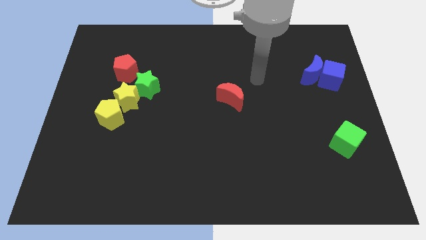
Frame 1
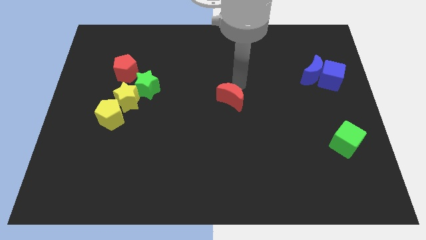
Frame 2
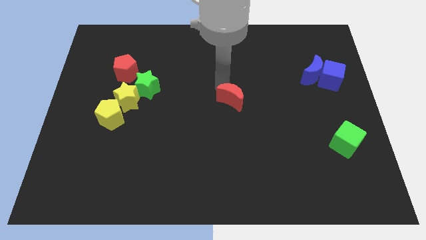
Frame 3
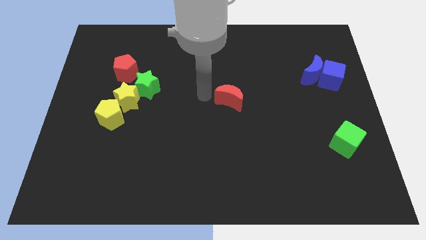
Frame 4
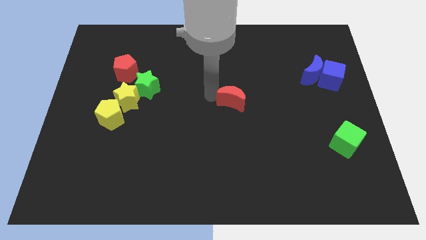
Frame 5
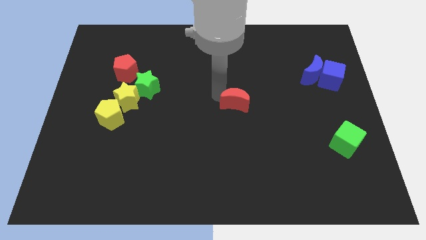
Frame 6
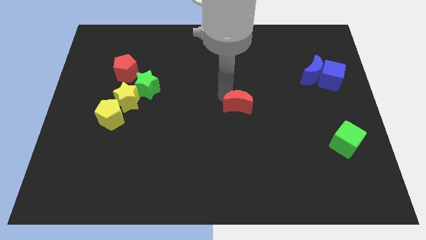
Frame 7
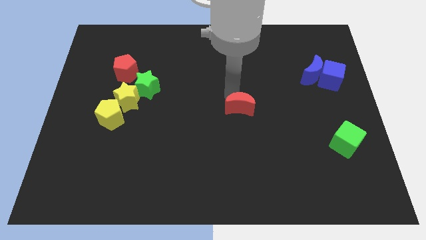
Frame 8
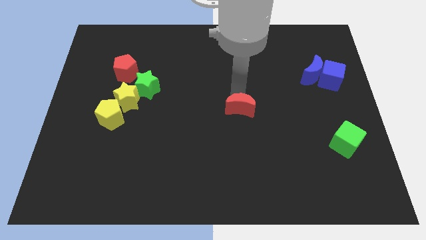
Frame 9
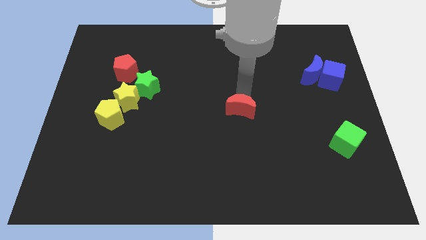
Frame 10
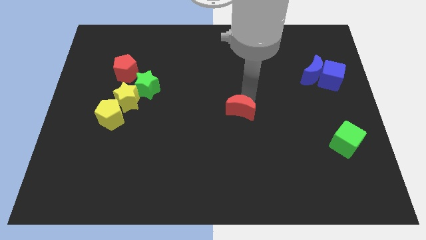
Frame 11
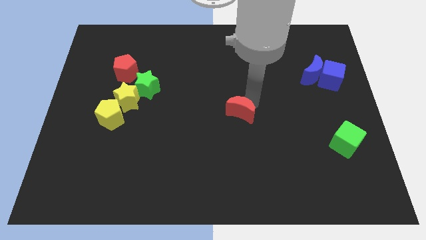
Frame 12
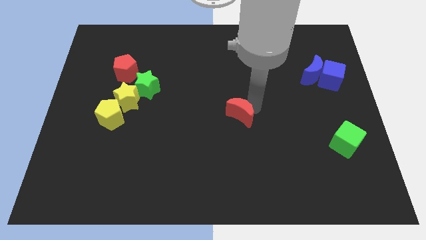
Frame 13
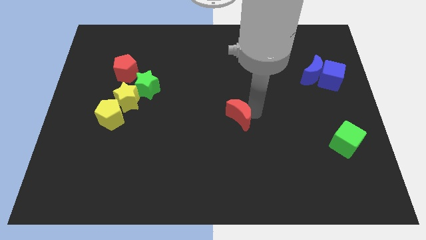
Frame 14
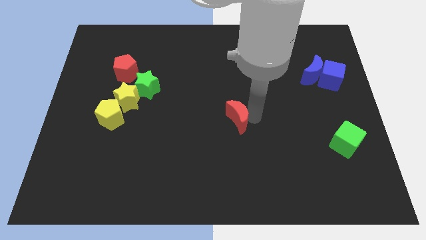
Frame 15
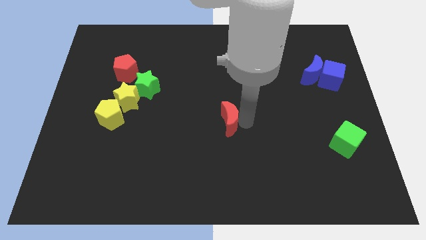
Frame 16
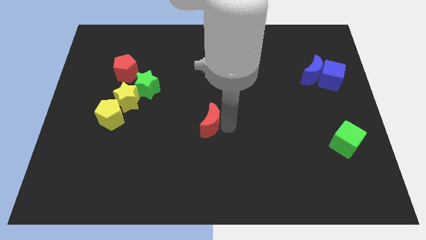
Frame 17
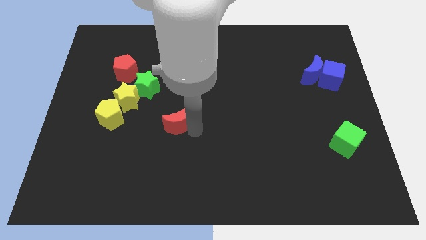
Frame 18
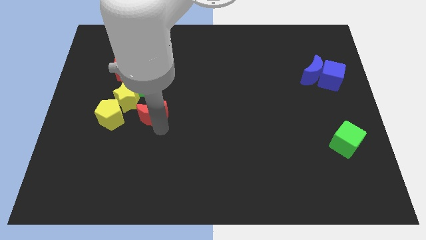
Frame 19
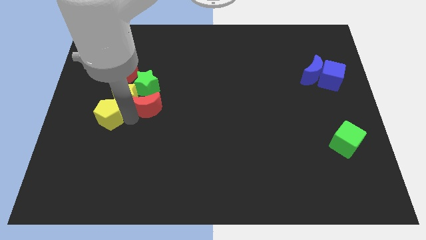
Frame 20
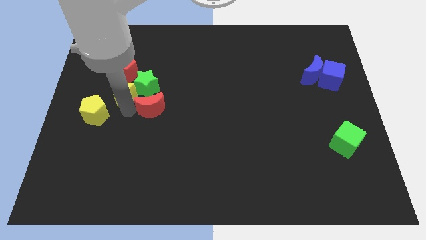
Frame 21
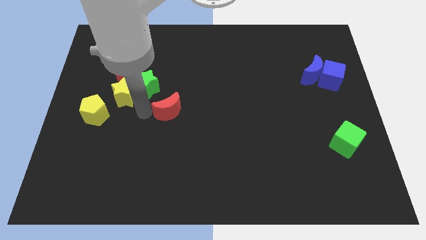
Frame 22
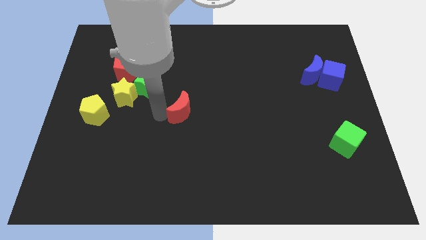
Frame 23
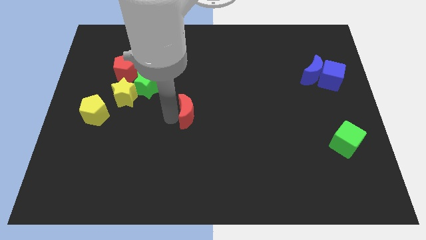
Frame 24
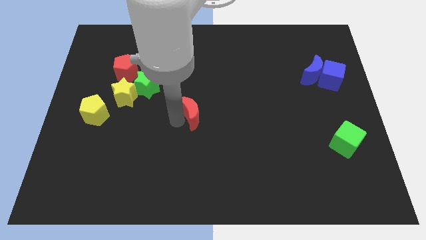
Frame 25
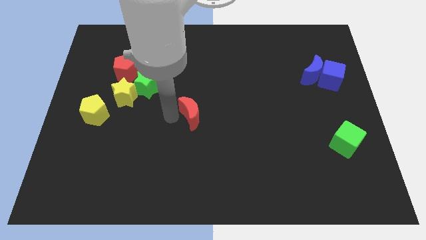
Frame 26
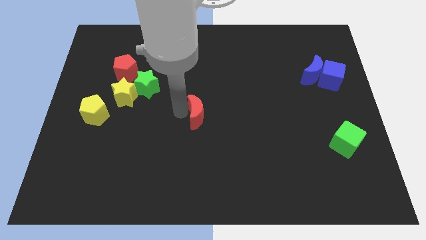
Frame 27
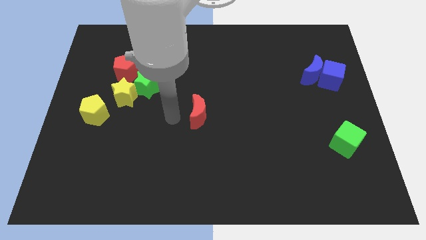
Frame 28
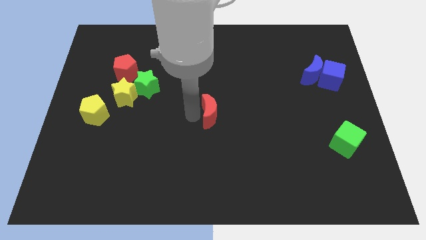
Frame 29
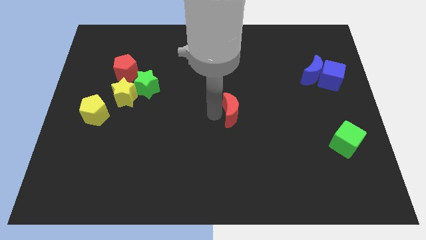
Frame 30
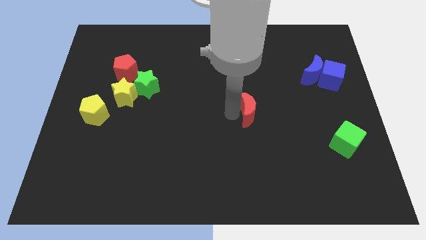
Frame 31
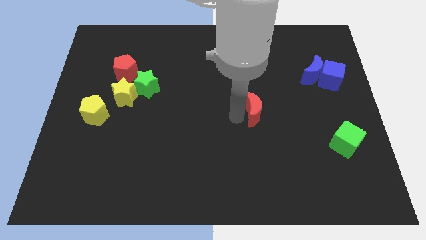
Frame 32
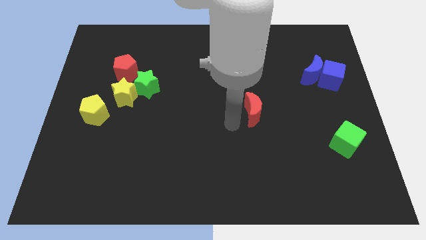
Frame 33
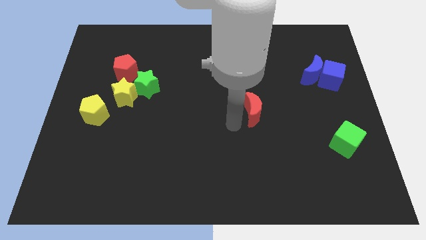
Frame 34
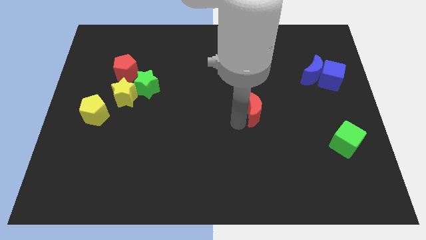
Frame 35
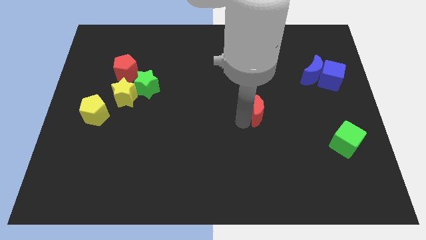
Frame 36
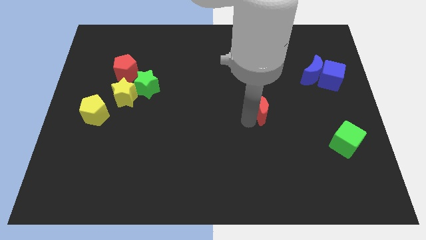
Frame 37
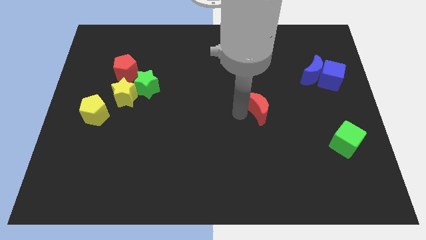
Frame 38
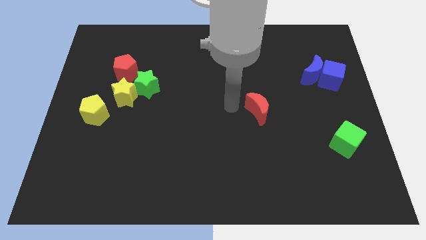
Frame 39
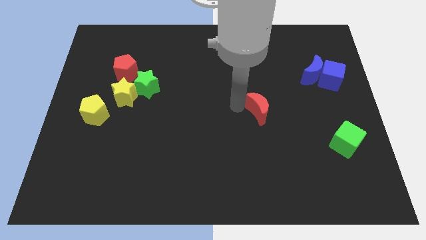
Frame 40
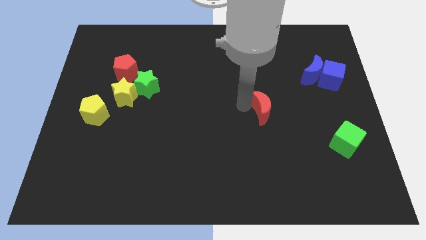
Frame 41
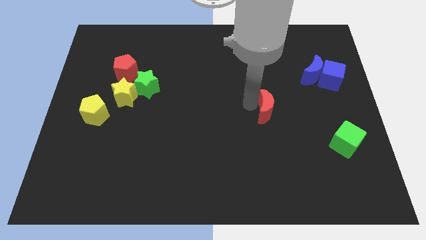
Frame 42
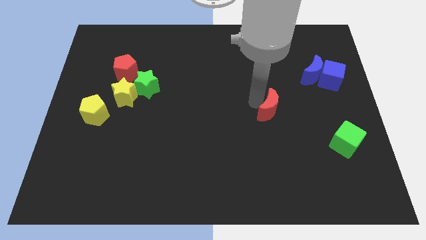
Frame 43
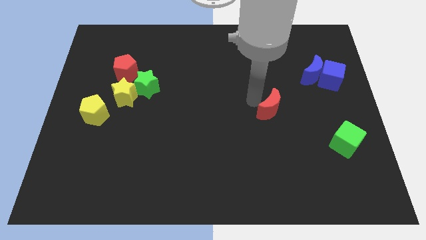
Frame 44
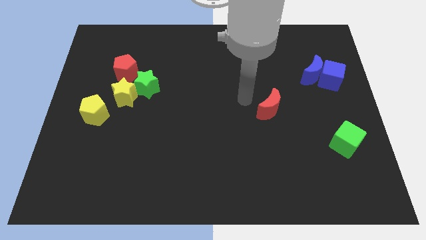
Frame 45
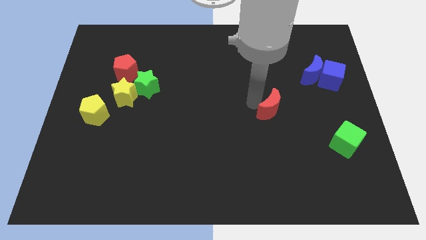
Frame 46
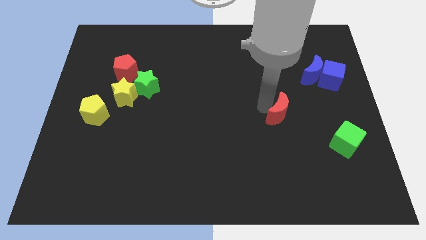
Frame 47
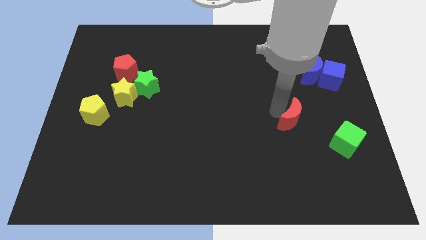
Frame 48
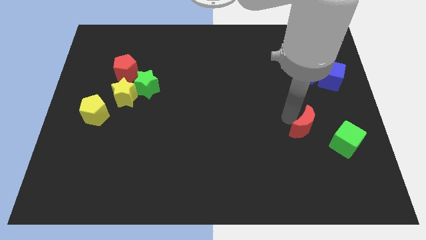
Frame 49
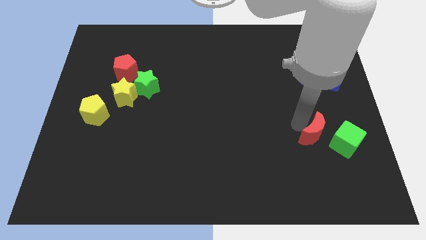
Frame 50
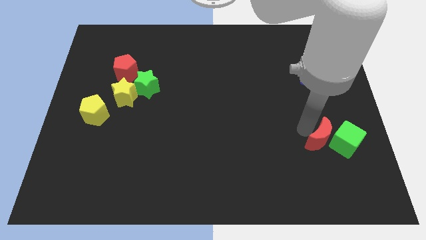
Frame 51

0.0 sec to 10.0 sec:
put the red moon close to the green cube

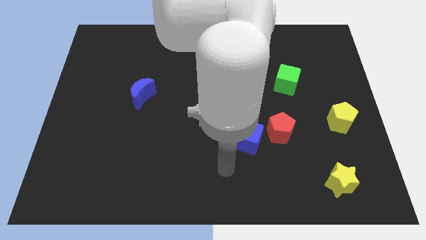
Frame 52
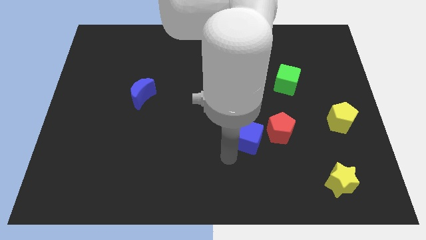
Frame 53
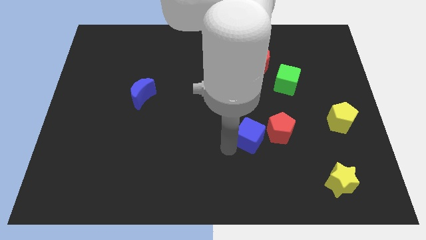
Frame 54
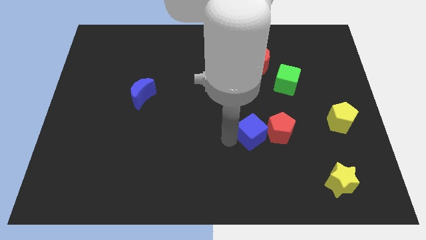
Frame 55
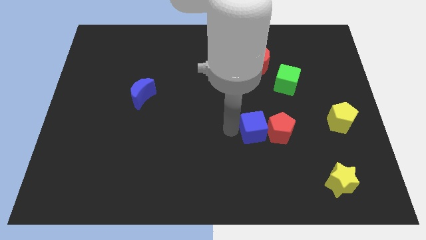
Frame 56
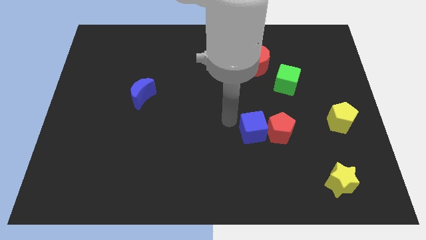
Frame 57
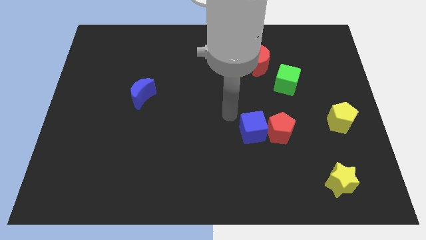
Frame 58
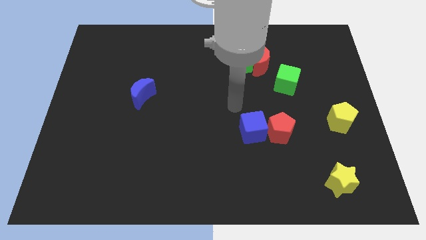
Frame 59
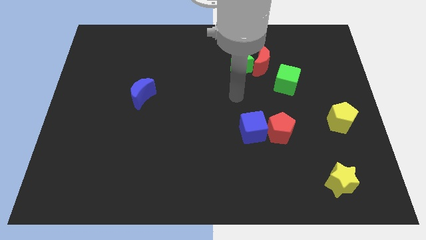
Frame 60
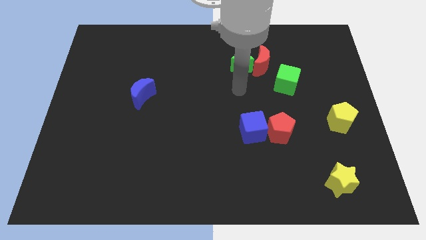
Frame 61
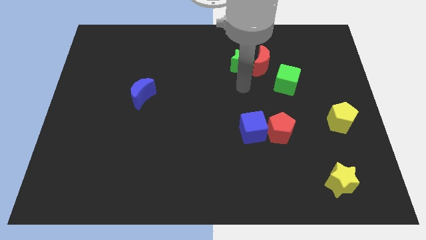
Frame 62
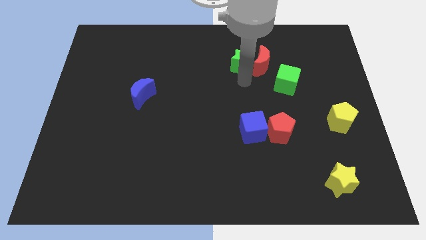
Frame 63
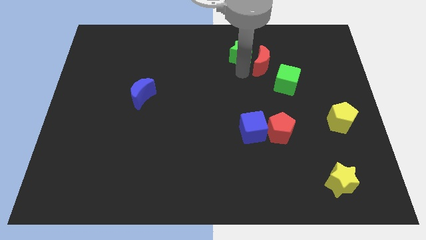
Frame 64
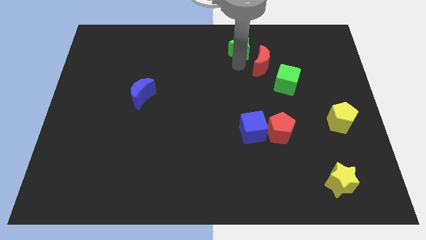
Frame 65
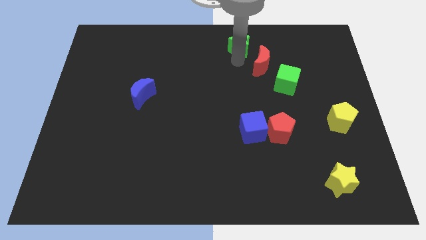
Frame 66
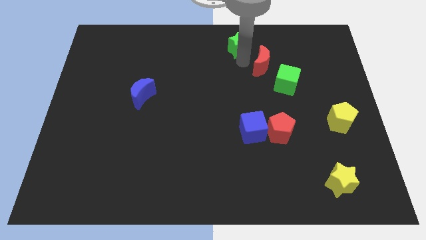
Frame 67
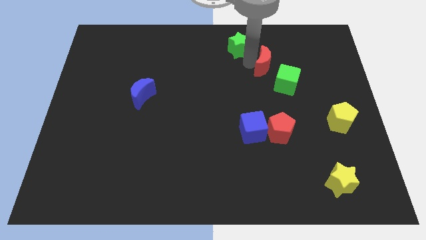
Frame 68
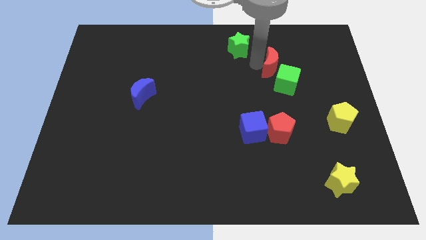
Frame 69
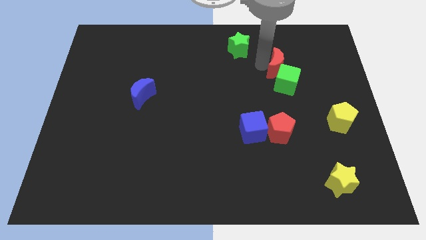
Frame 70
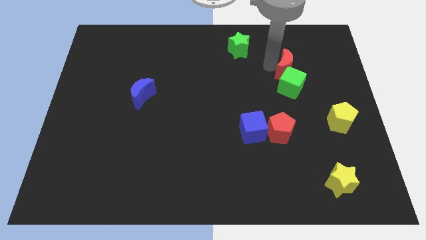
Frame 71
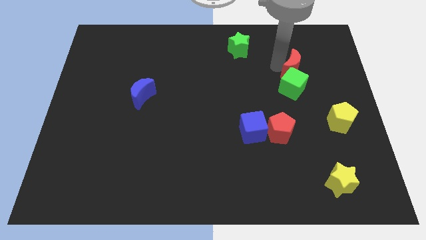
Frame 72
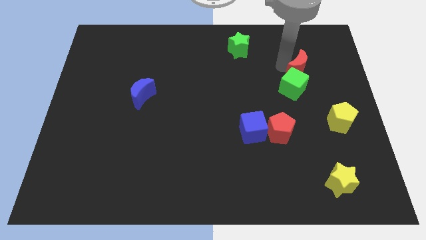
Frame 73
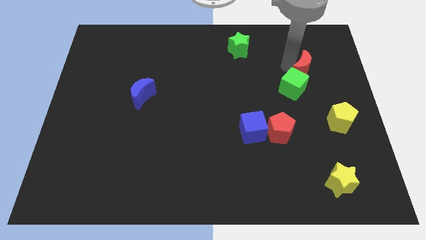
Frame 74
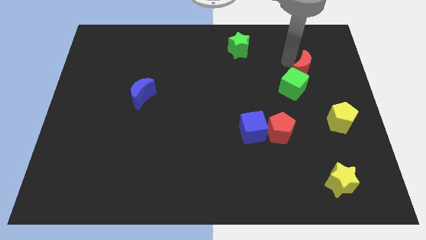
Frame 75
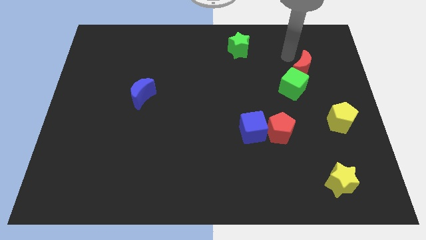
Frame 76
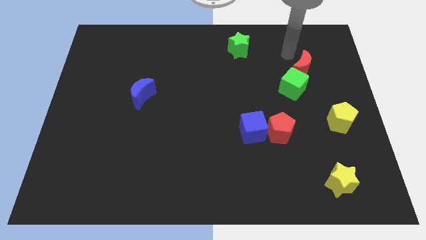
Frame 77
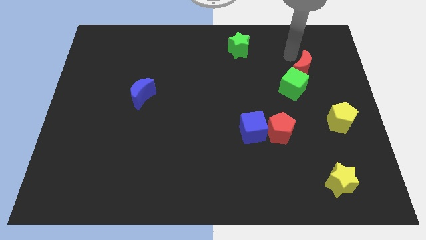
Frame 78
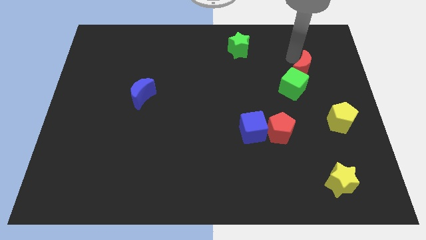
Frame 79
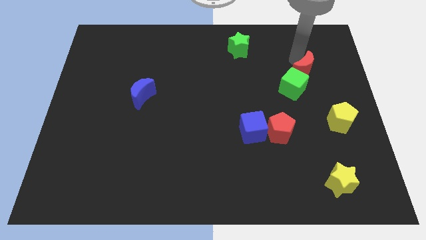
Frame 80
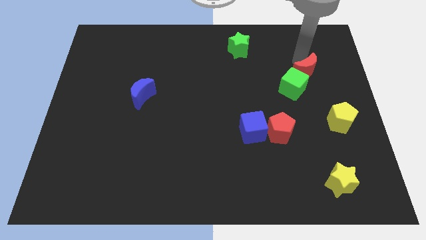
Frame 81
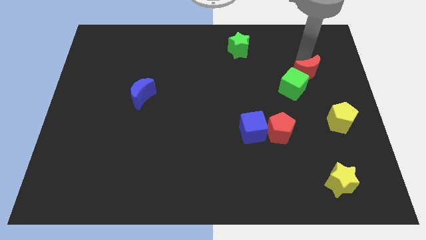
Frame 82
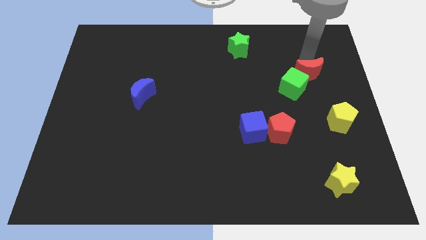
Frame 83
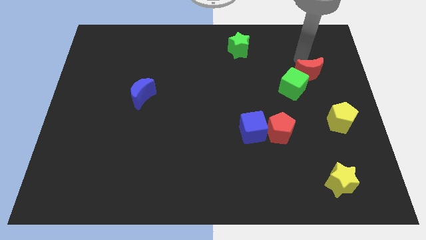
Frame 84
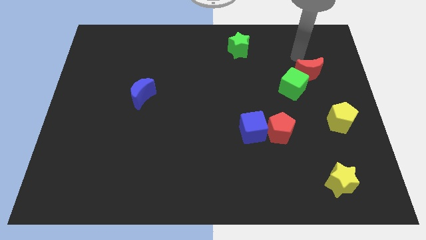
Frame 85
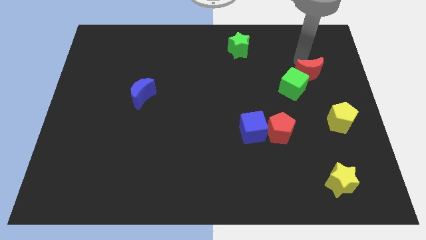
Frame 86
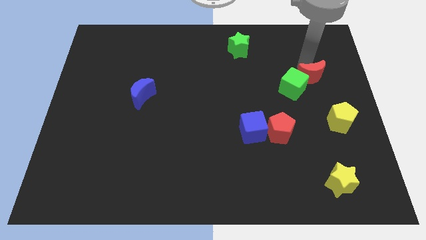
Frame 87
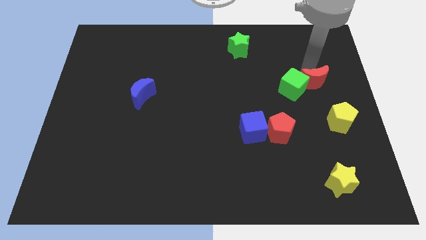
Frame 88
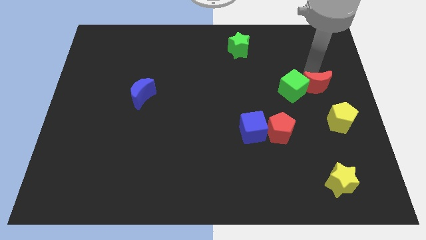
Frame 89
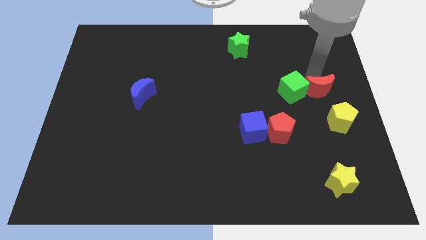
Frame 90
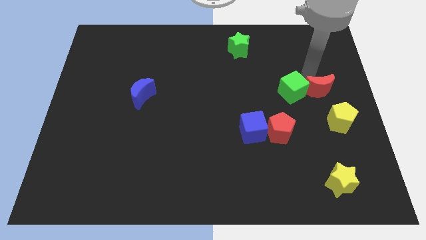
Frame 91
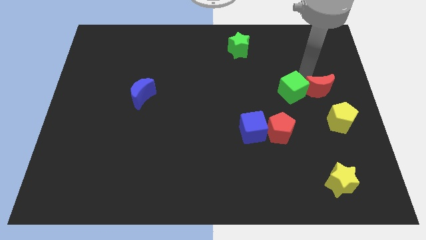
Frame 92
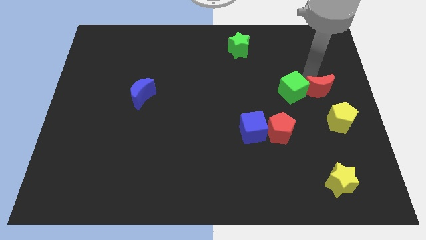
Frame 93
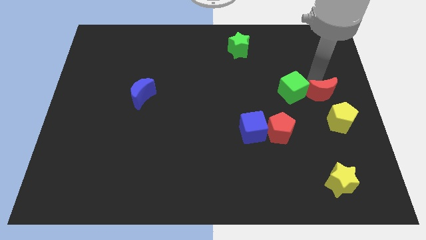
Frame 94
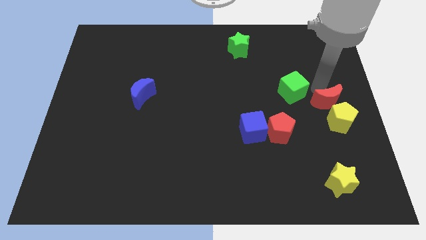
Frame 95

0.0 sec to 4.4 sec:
slide the red moon to the yellow pentagon
